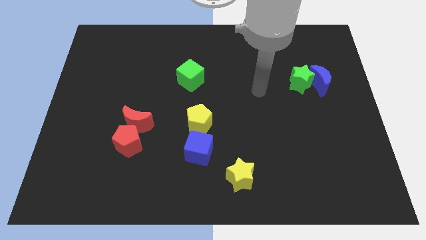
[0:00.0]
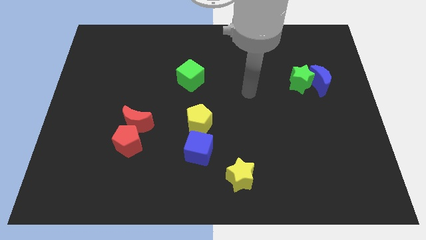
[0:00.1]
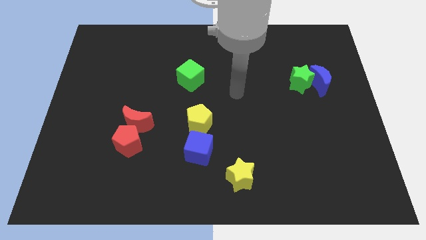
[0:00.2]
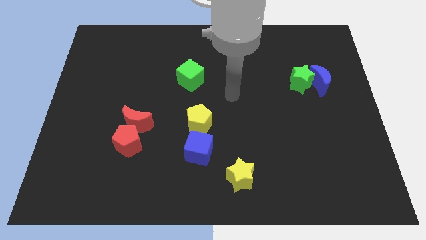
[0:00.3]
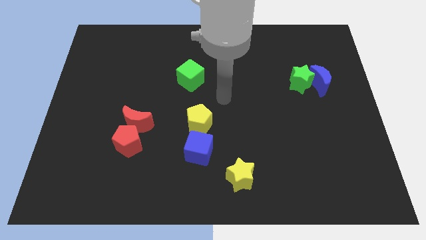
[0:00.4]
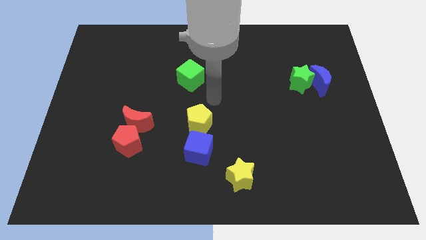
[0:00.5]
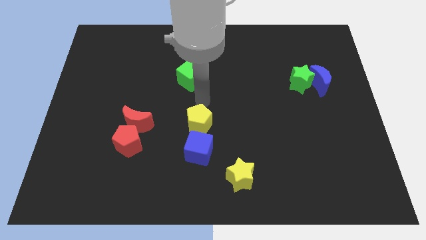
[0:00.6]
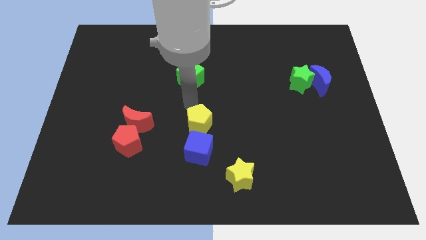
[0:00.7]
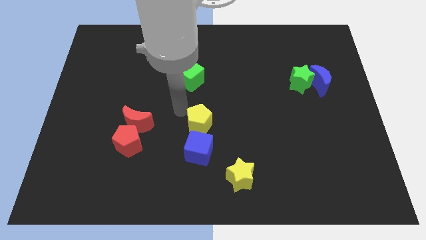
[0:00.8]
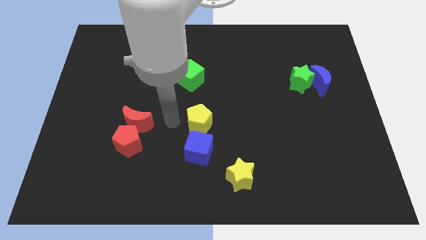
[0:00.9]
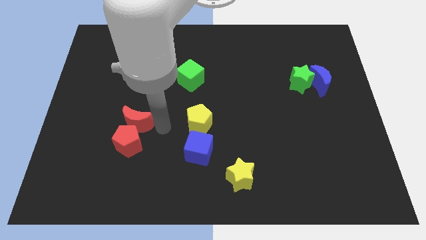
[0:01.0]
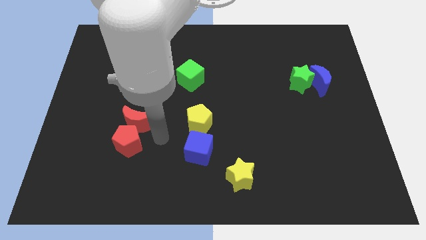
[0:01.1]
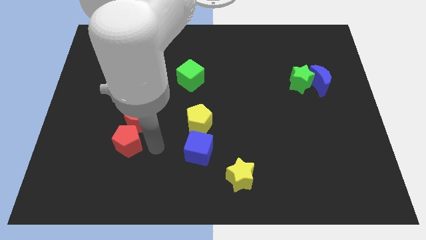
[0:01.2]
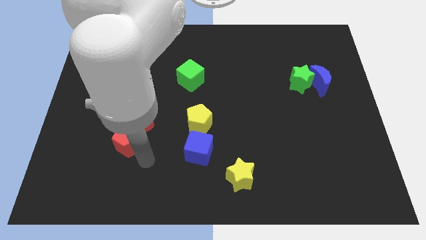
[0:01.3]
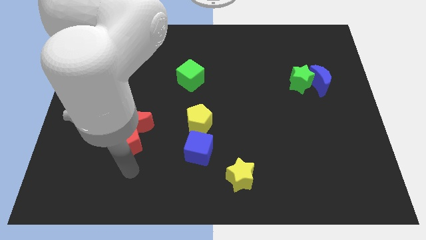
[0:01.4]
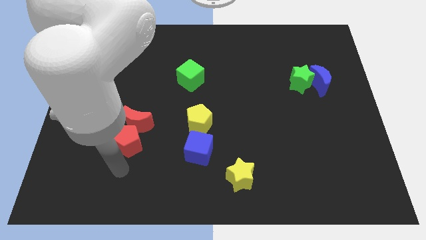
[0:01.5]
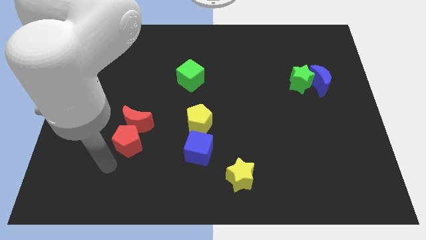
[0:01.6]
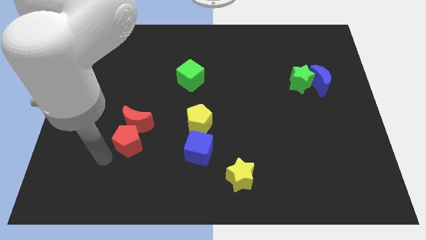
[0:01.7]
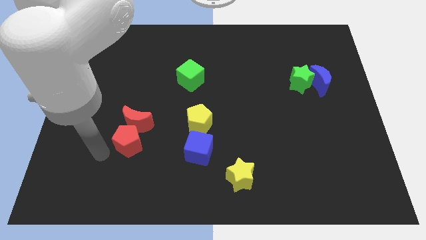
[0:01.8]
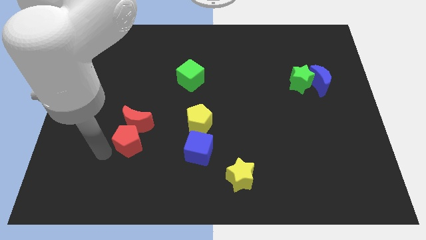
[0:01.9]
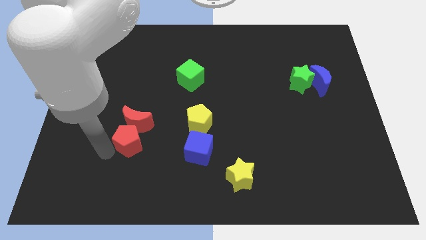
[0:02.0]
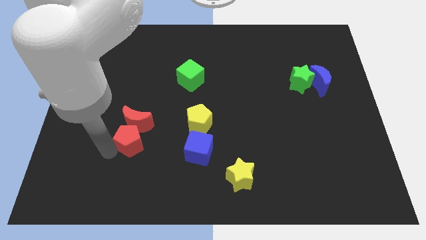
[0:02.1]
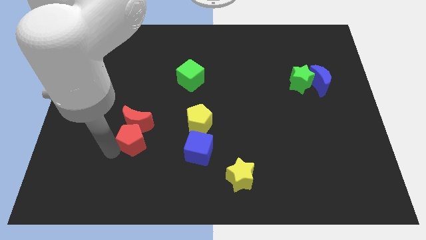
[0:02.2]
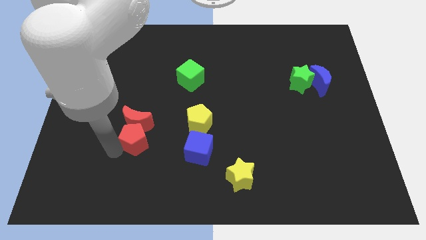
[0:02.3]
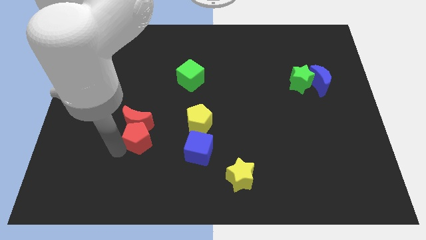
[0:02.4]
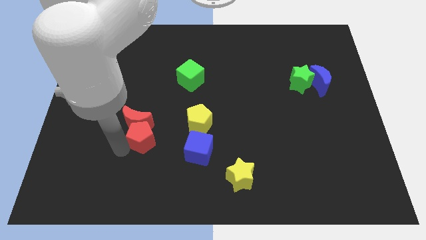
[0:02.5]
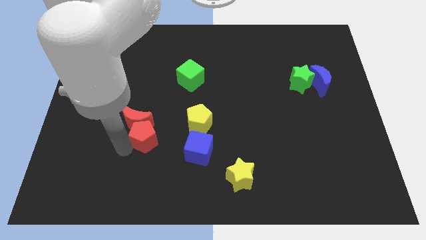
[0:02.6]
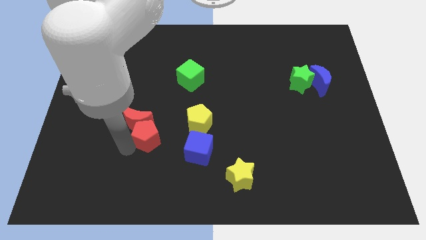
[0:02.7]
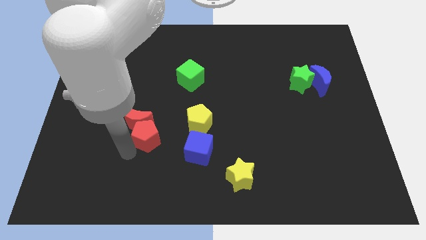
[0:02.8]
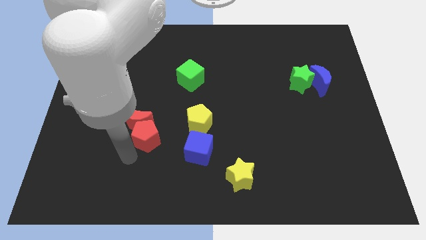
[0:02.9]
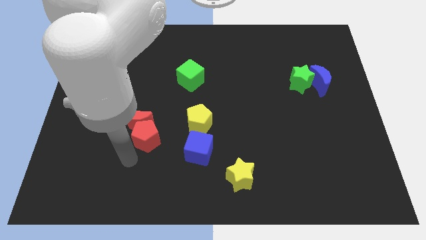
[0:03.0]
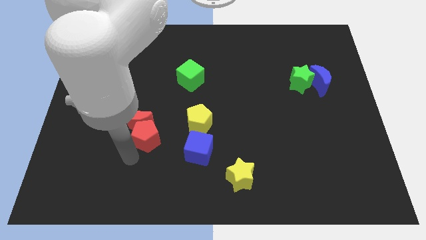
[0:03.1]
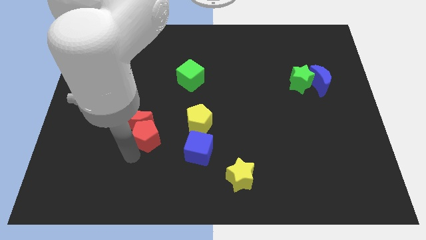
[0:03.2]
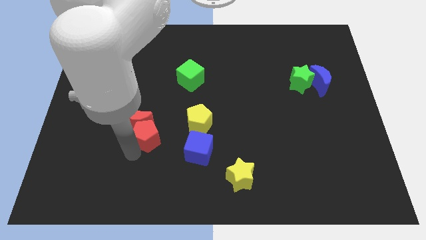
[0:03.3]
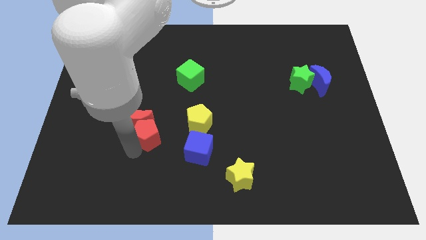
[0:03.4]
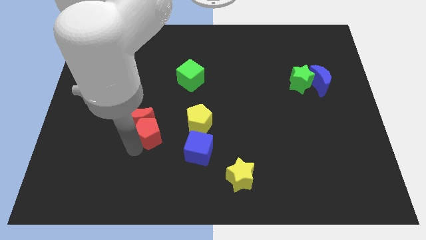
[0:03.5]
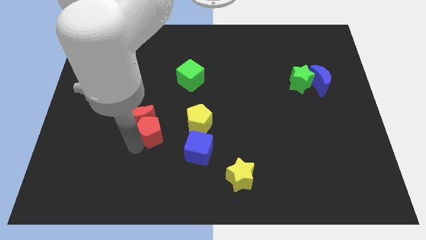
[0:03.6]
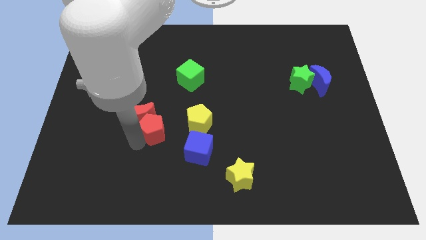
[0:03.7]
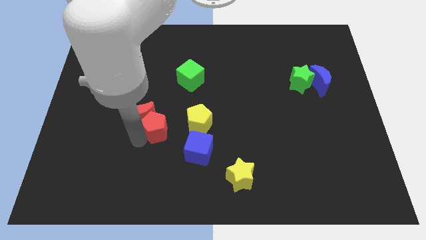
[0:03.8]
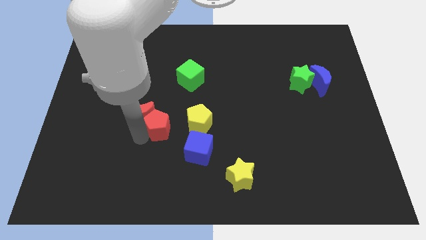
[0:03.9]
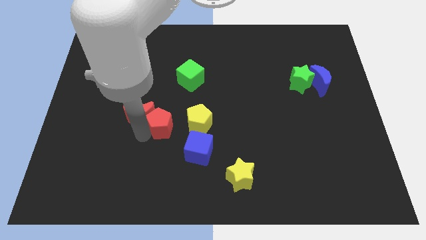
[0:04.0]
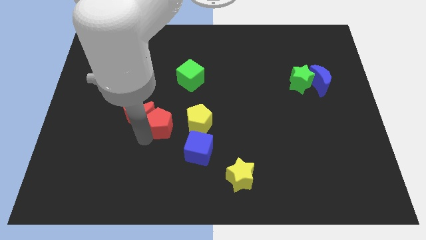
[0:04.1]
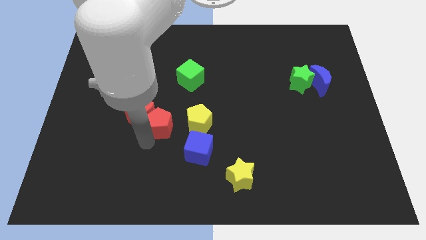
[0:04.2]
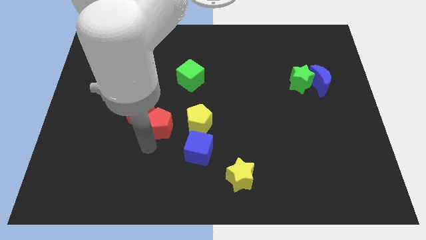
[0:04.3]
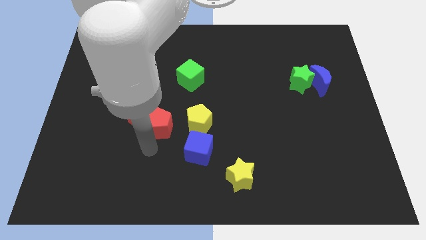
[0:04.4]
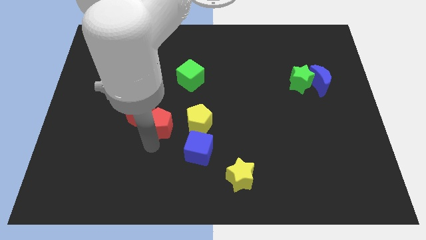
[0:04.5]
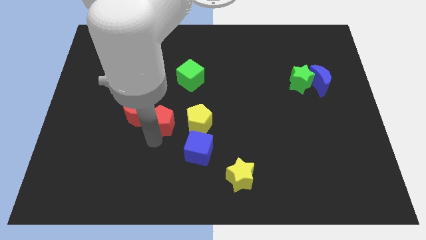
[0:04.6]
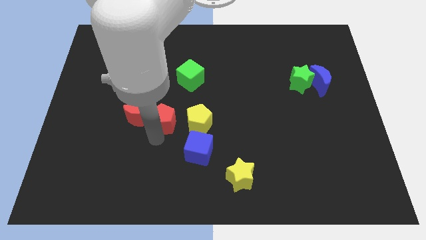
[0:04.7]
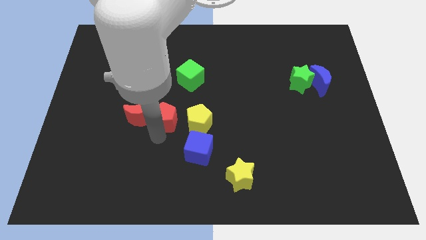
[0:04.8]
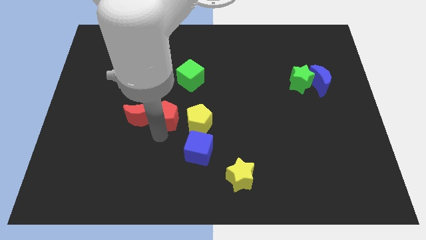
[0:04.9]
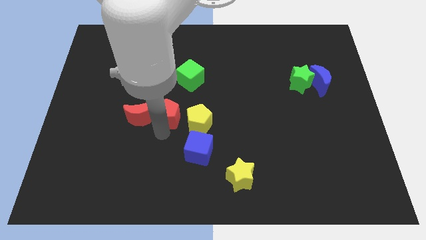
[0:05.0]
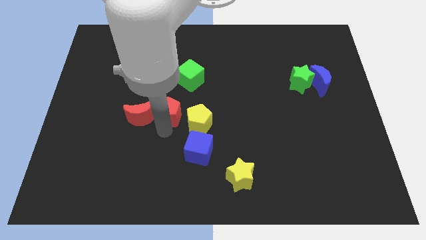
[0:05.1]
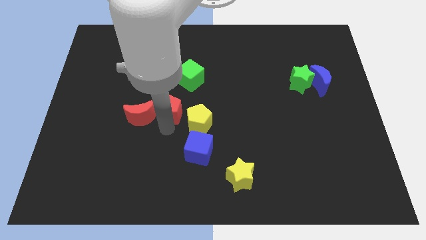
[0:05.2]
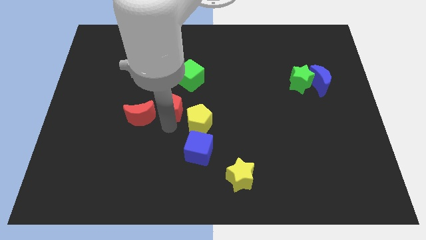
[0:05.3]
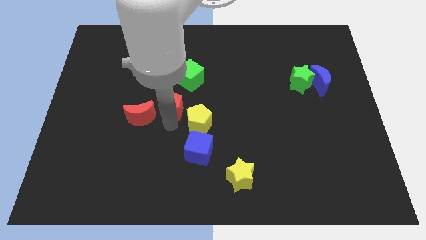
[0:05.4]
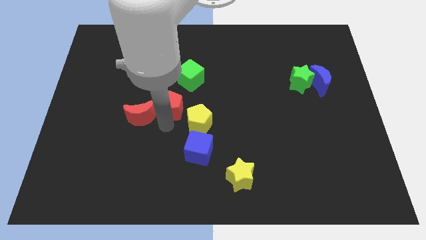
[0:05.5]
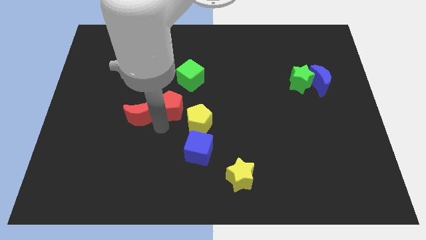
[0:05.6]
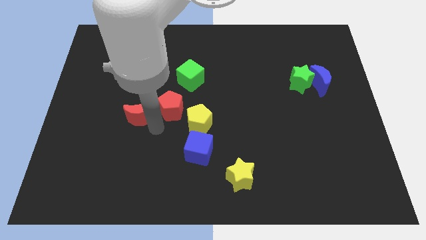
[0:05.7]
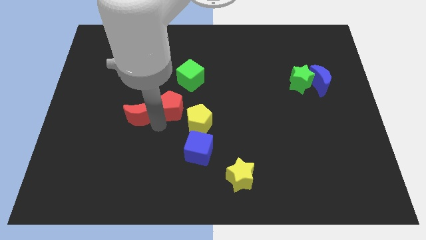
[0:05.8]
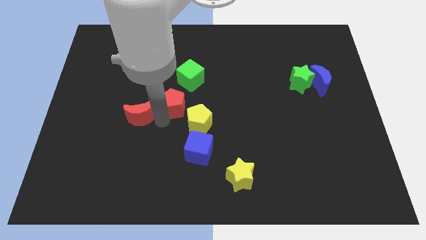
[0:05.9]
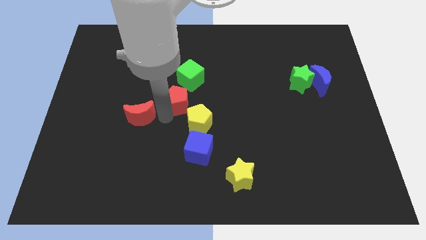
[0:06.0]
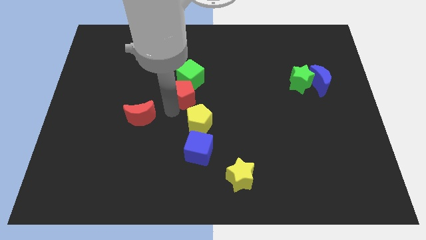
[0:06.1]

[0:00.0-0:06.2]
slide the red pentagon close to the green cube

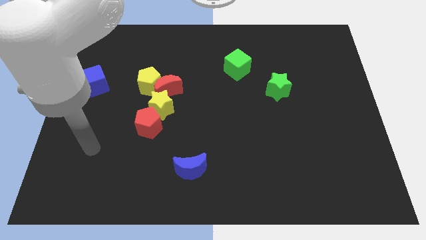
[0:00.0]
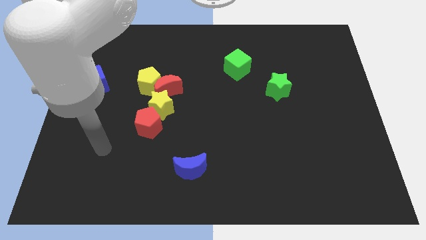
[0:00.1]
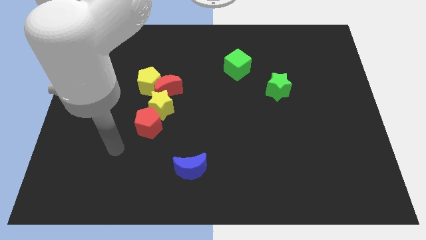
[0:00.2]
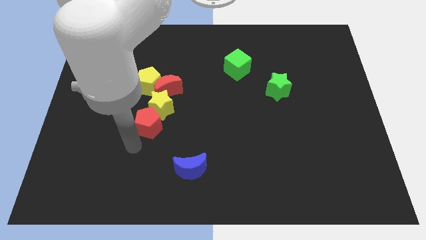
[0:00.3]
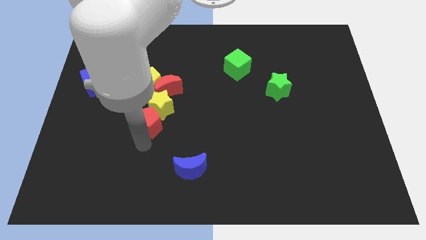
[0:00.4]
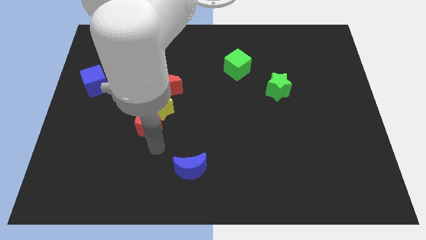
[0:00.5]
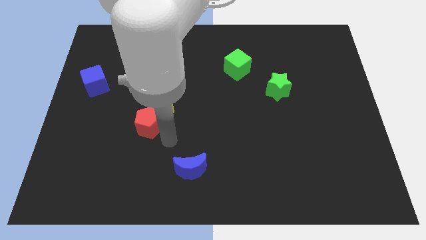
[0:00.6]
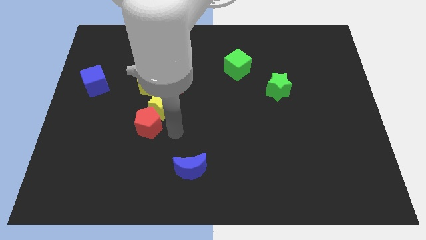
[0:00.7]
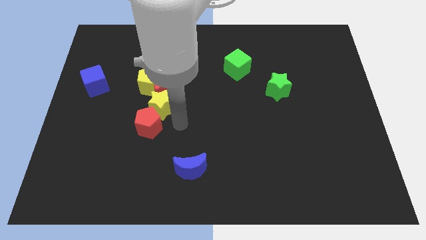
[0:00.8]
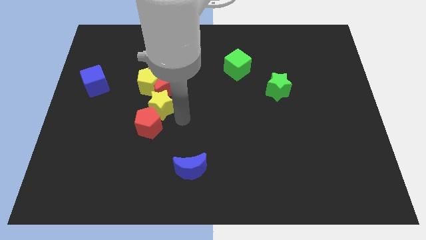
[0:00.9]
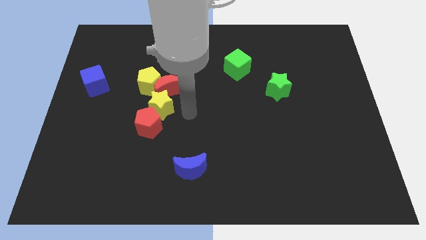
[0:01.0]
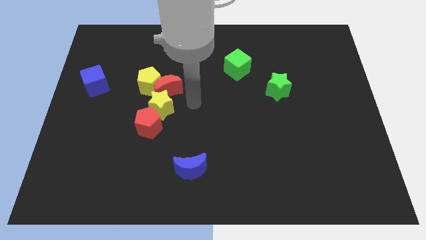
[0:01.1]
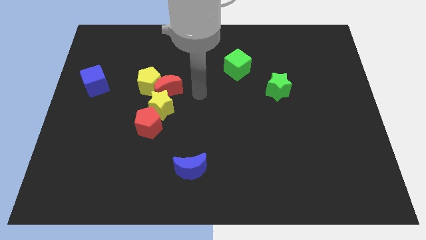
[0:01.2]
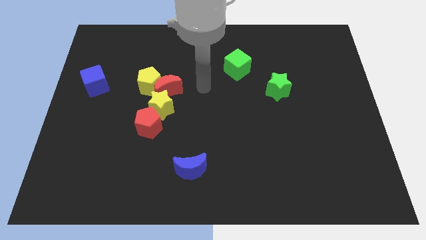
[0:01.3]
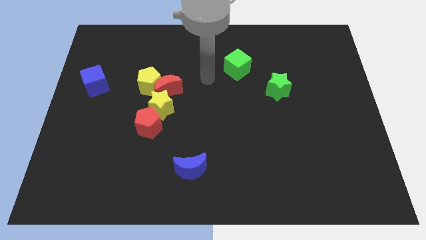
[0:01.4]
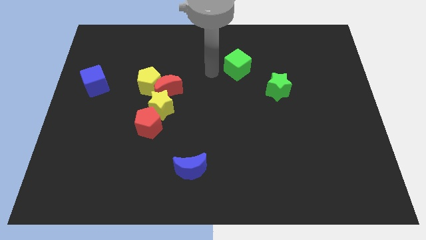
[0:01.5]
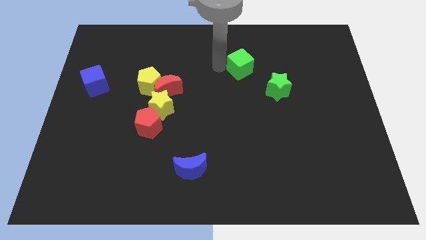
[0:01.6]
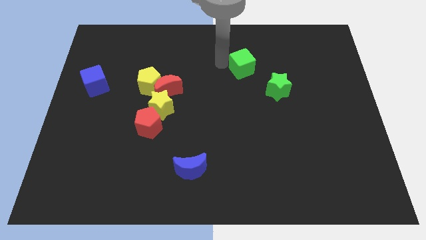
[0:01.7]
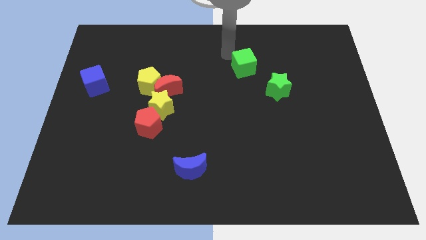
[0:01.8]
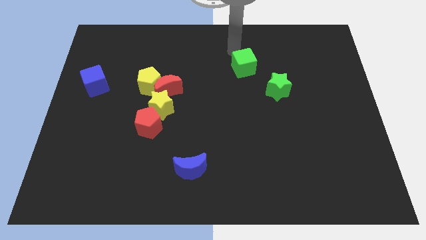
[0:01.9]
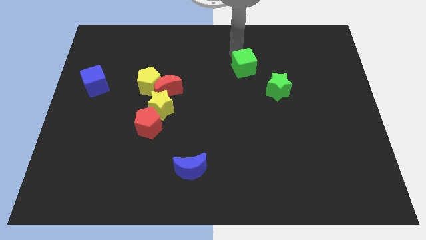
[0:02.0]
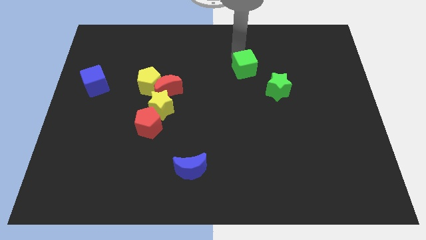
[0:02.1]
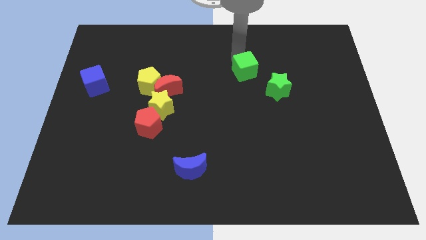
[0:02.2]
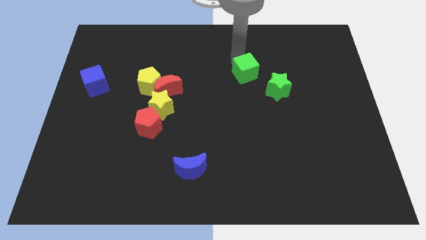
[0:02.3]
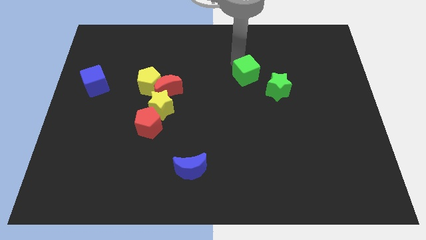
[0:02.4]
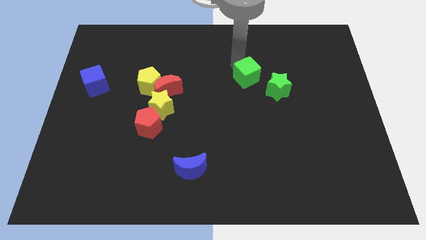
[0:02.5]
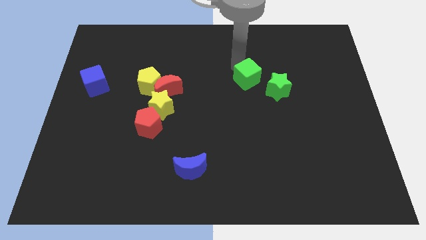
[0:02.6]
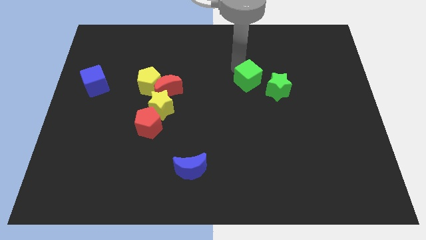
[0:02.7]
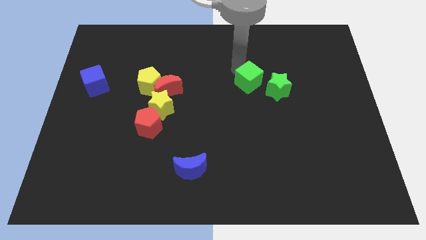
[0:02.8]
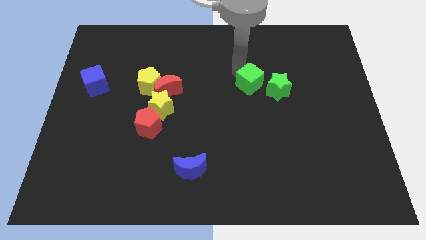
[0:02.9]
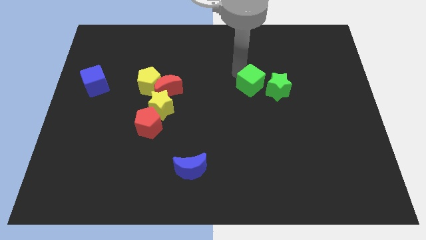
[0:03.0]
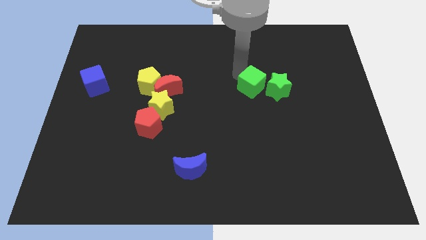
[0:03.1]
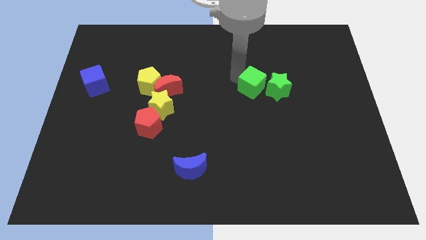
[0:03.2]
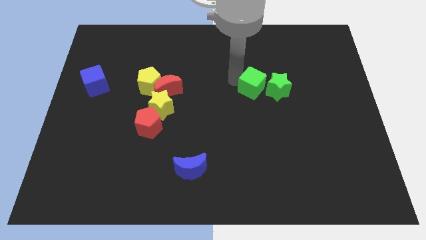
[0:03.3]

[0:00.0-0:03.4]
move the green cube to the green star
